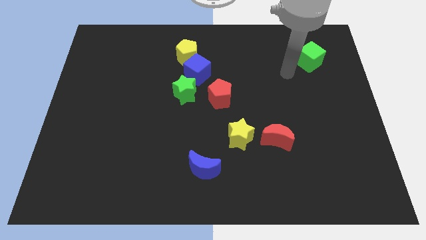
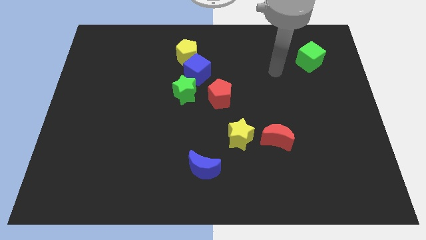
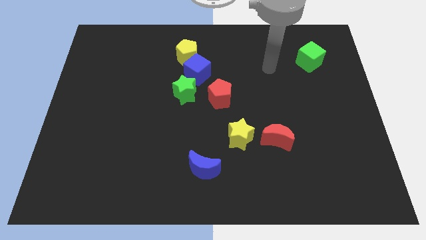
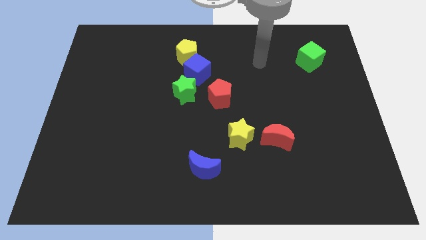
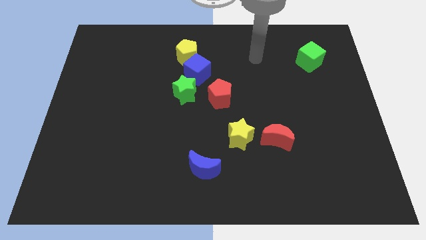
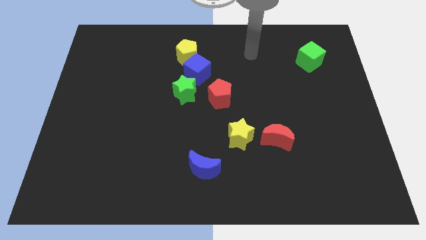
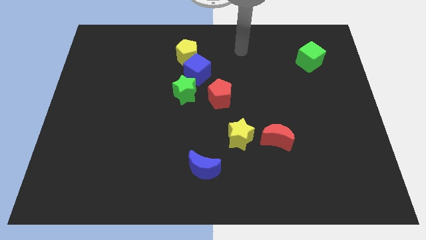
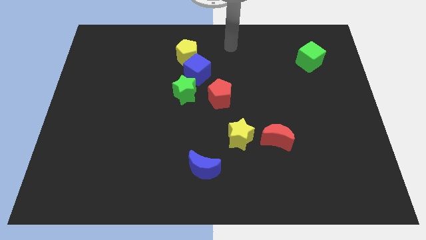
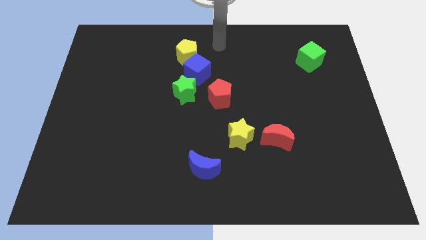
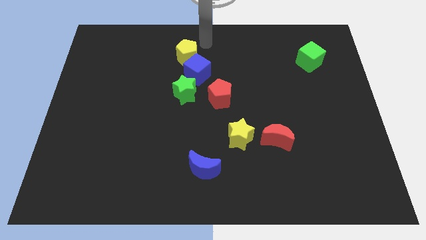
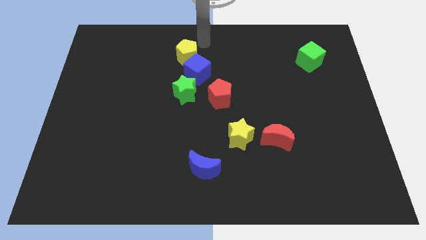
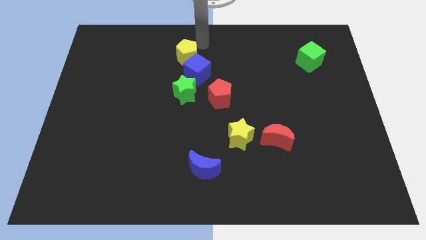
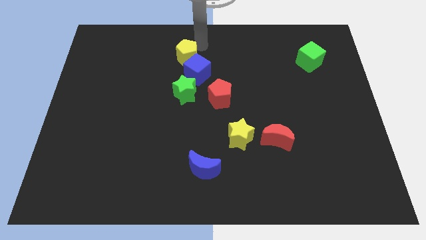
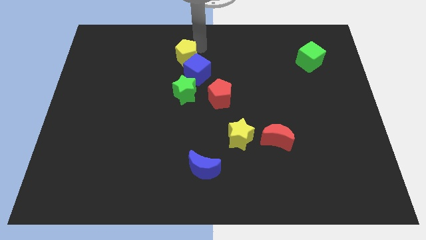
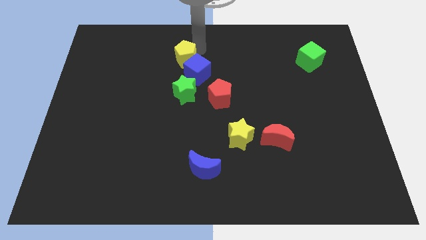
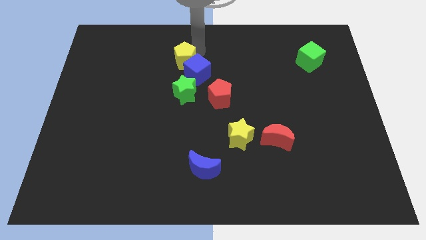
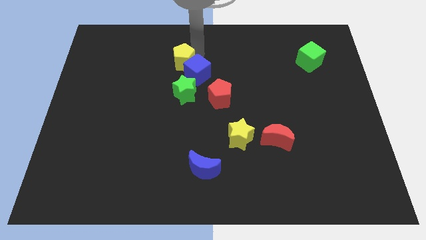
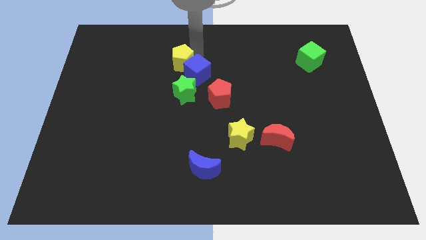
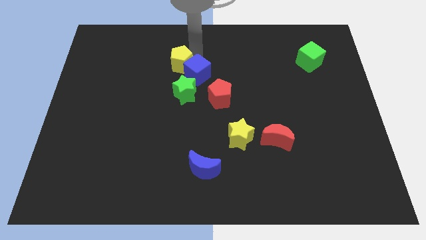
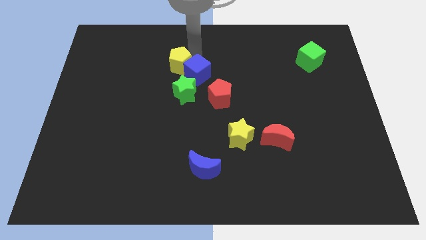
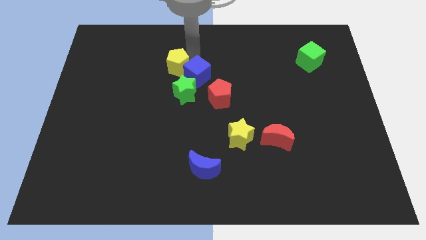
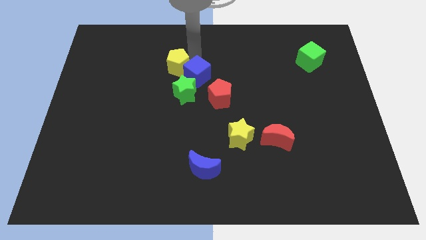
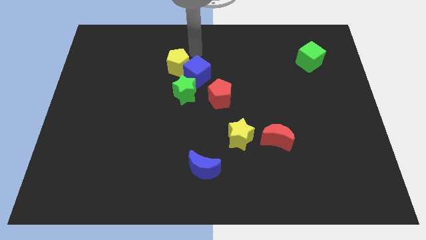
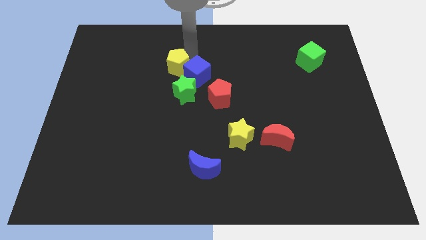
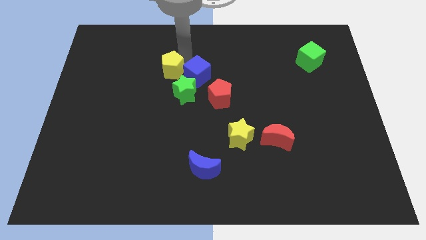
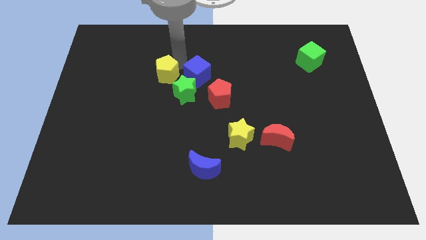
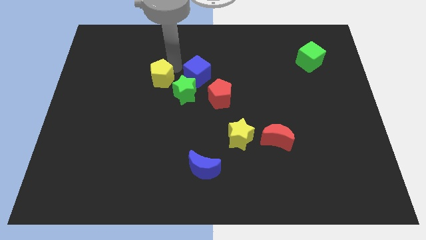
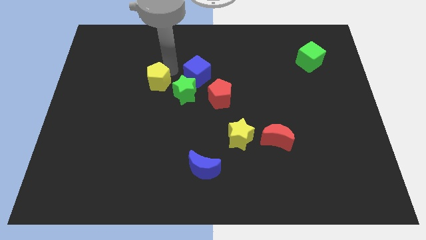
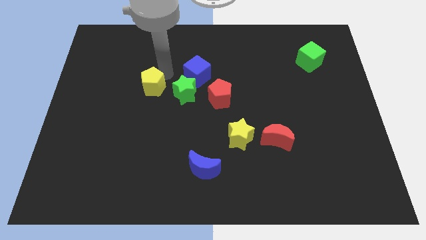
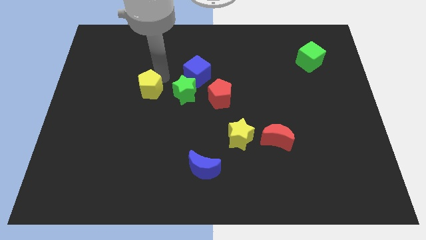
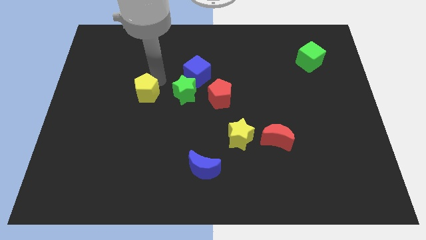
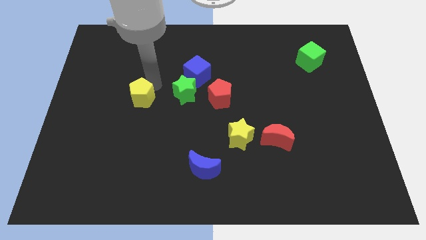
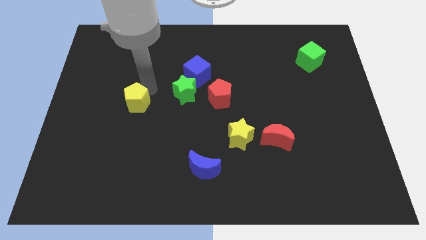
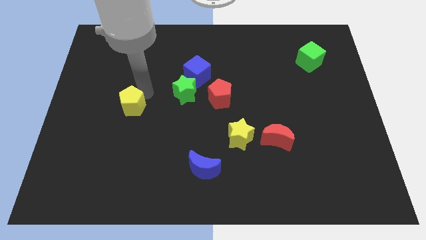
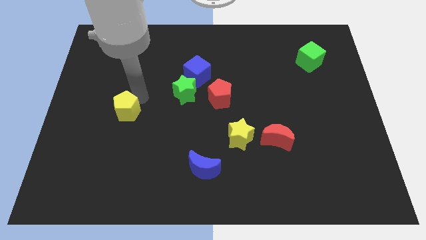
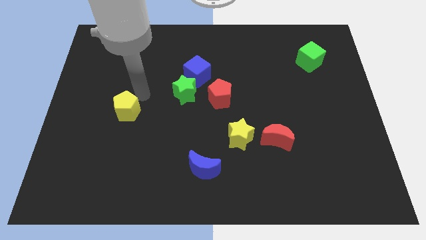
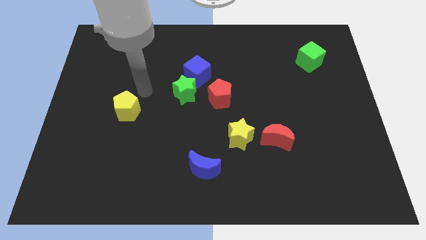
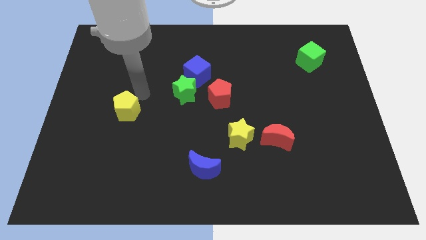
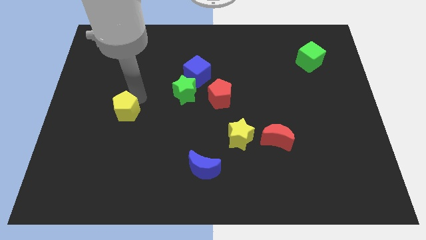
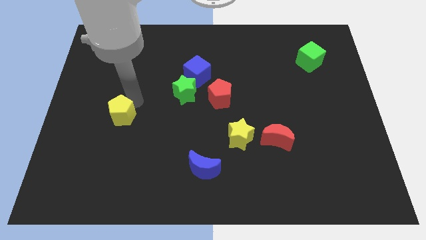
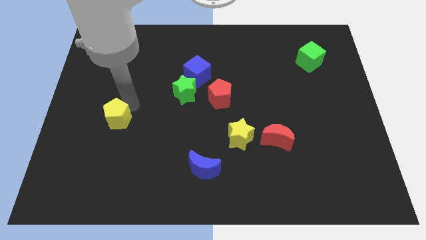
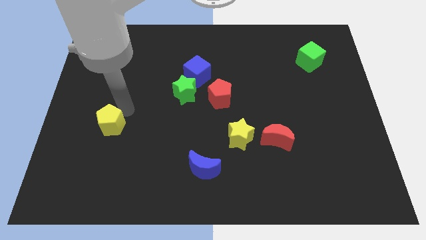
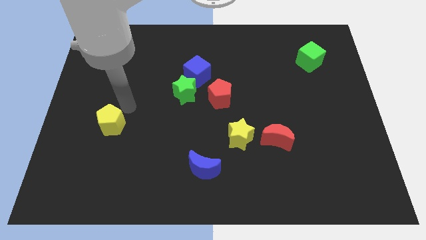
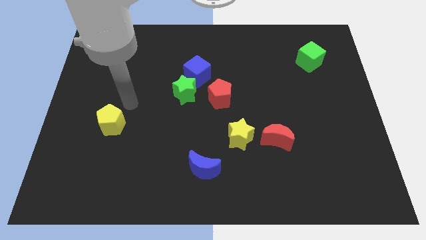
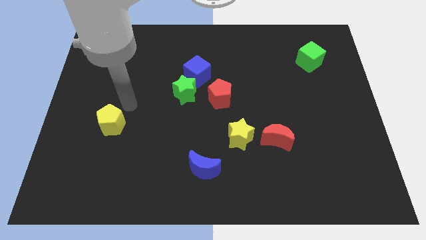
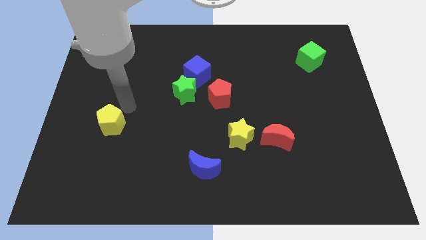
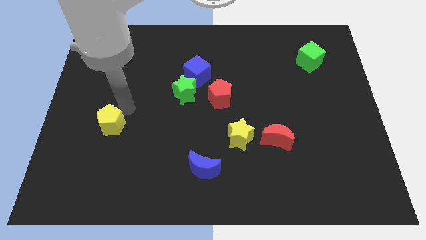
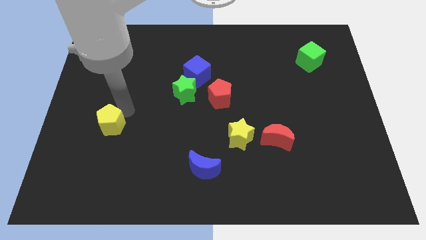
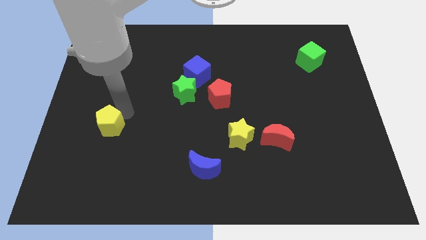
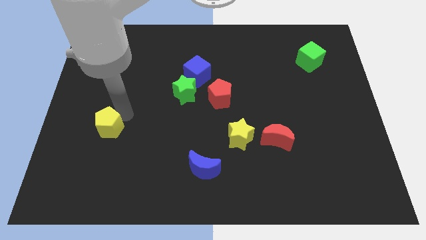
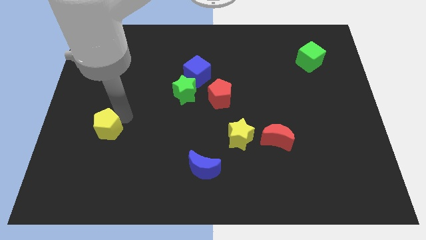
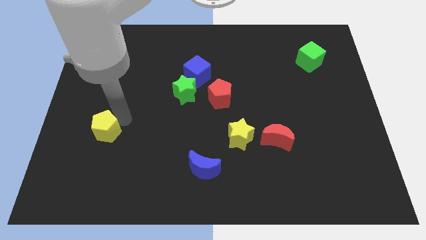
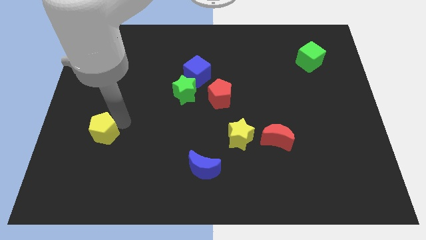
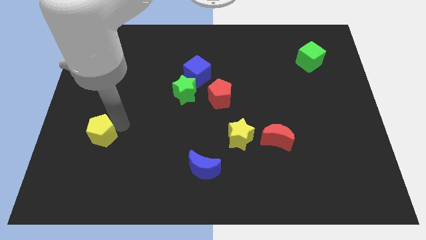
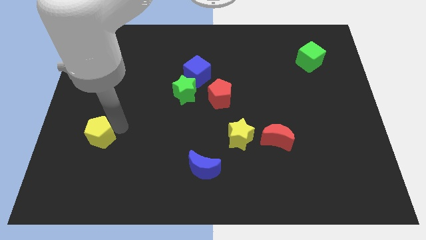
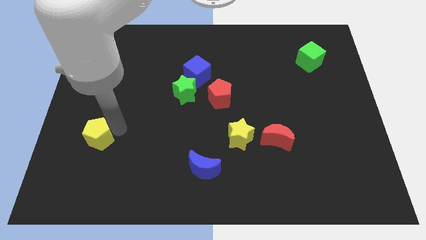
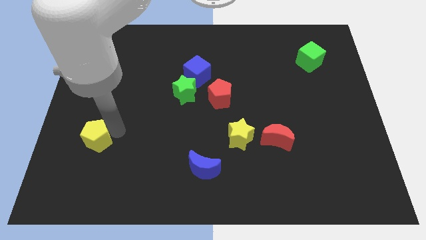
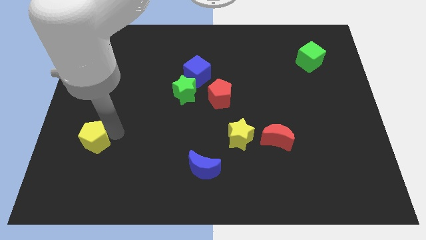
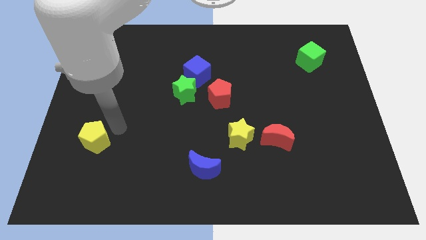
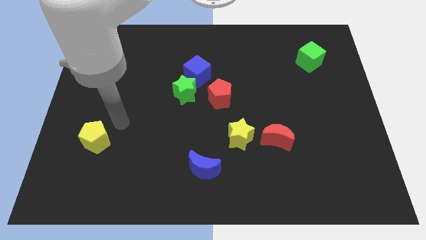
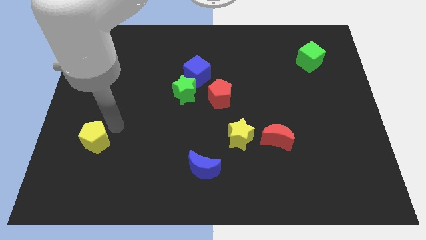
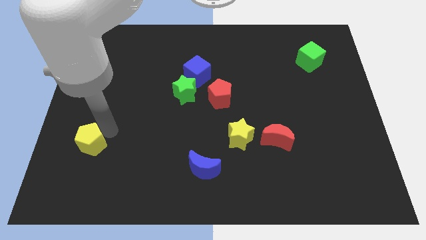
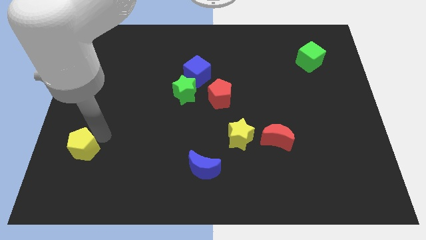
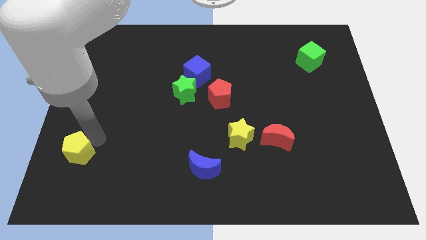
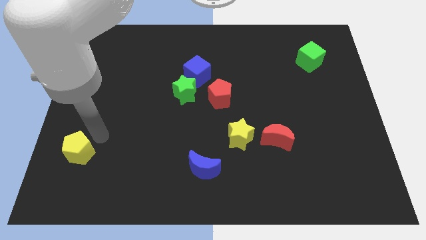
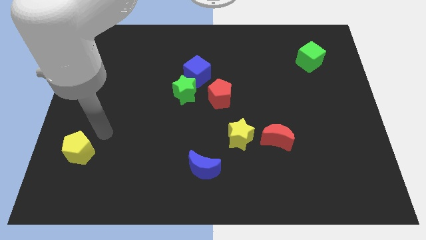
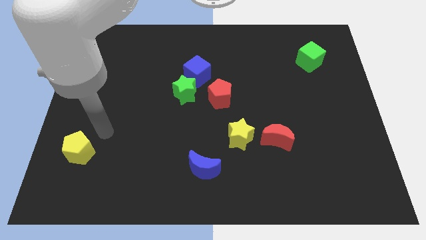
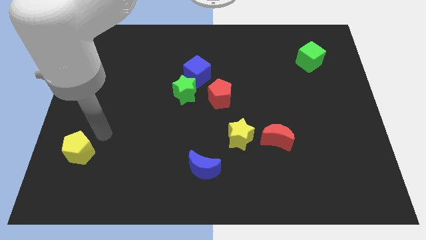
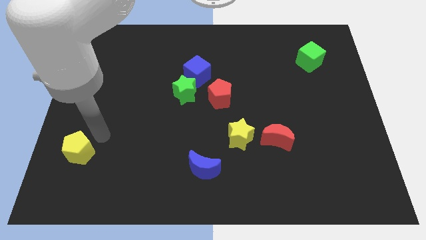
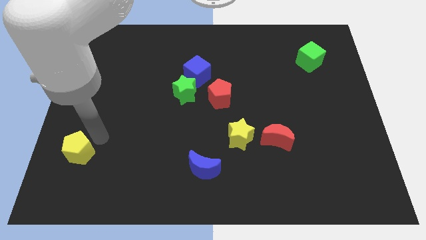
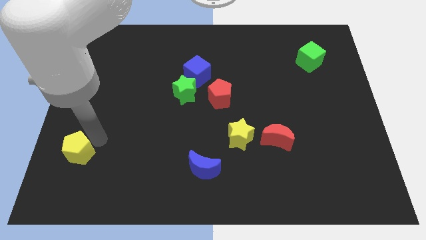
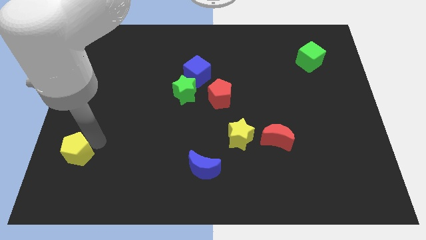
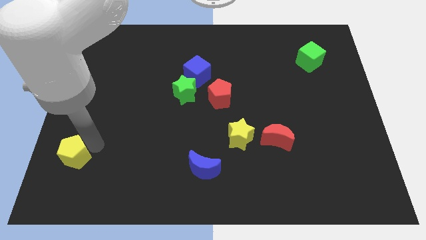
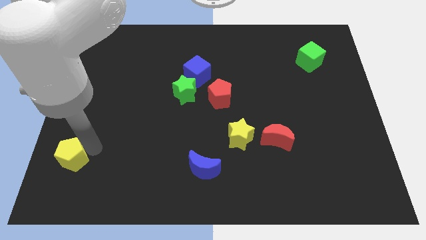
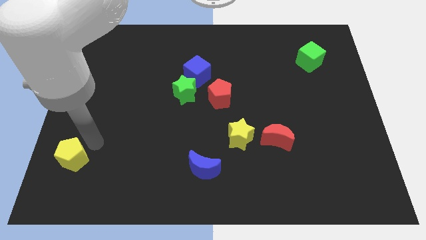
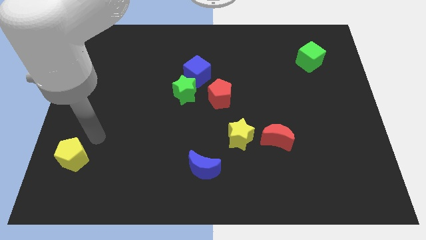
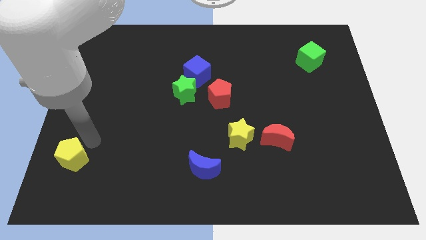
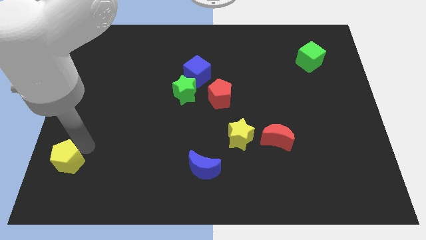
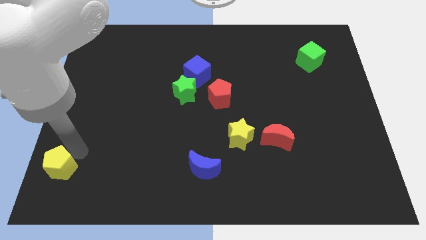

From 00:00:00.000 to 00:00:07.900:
move the yellow pentagon to the lower left corner
